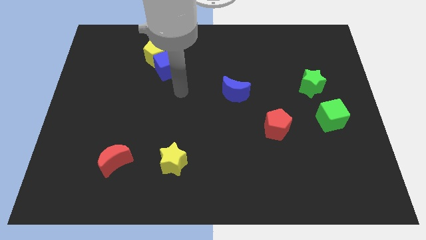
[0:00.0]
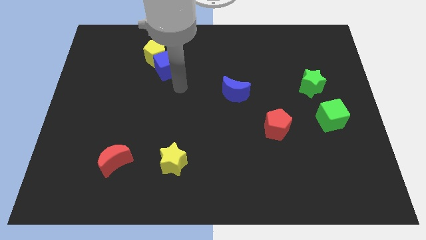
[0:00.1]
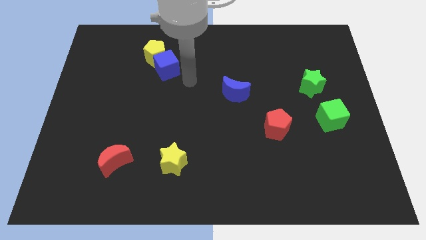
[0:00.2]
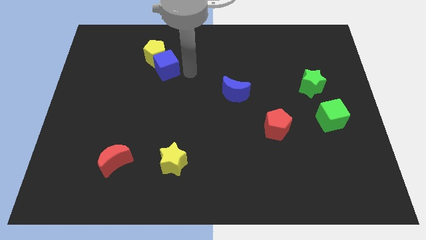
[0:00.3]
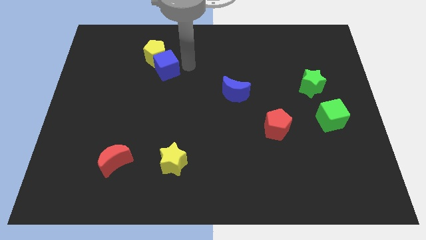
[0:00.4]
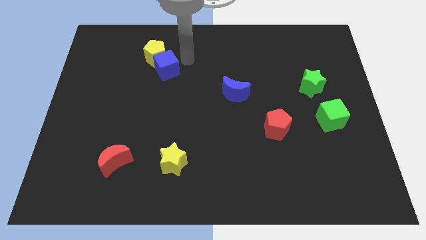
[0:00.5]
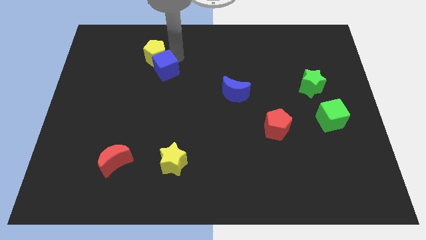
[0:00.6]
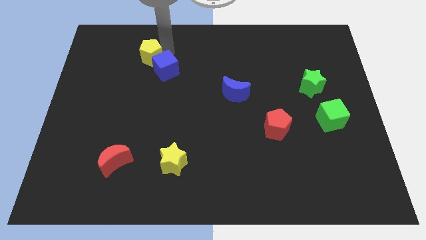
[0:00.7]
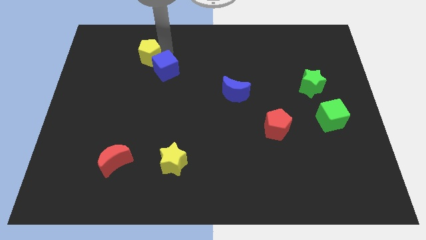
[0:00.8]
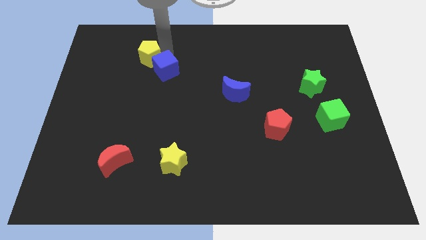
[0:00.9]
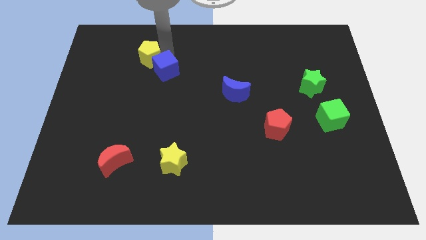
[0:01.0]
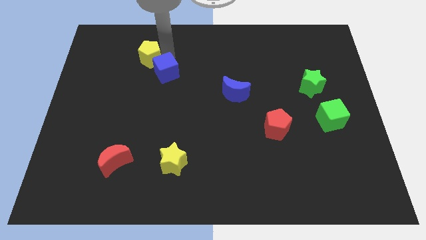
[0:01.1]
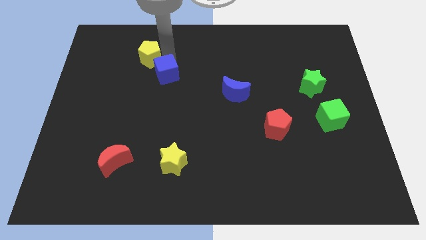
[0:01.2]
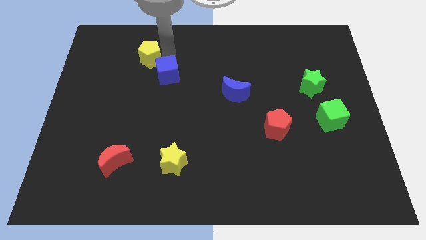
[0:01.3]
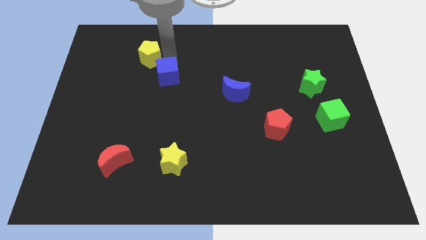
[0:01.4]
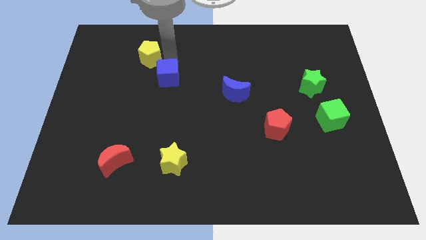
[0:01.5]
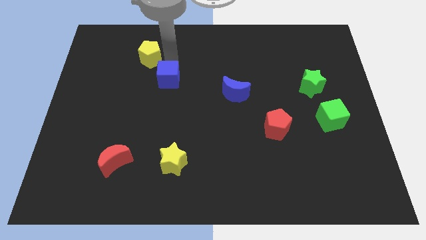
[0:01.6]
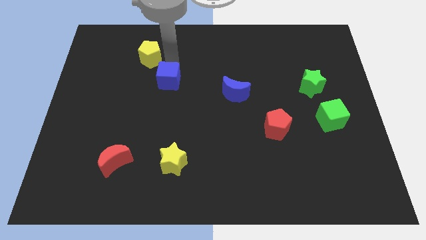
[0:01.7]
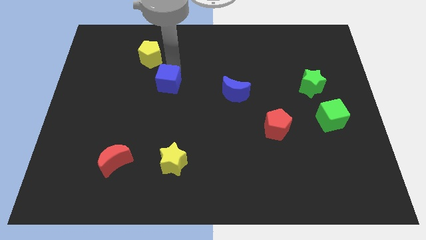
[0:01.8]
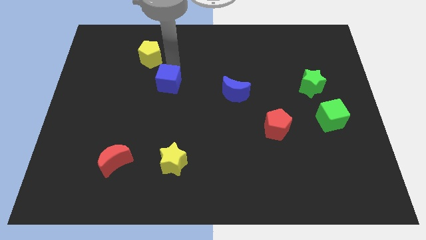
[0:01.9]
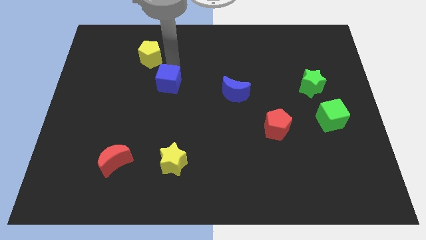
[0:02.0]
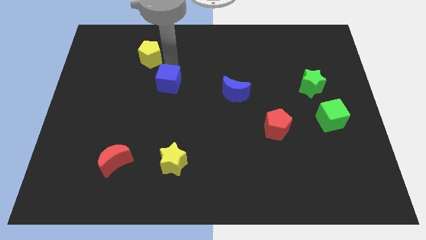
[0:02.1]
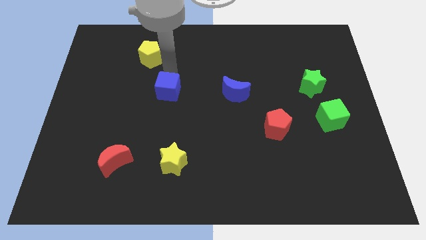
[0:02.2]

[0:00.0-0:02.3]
slide the blue cube somewhat downwards

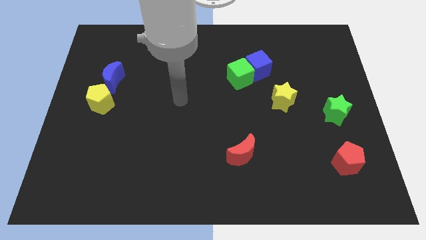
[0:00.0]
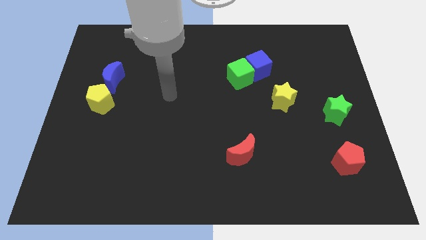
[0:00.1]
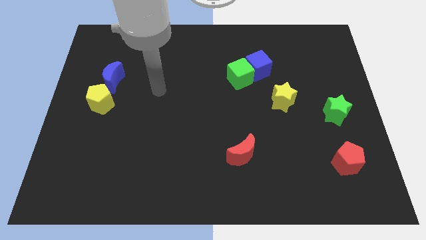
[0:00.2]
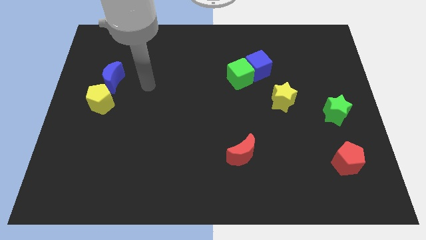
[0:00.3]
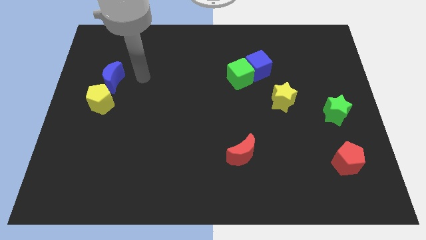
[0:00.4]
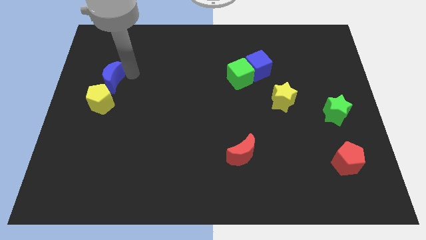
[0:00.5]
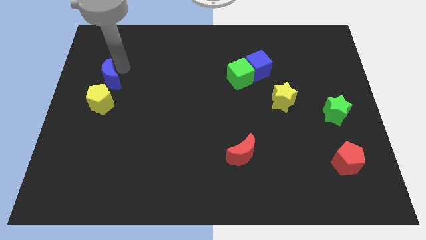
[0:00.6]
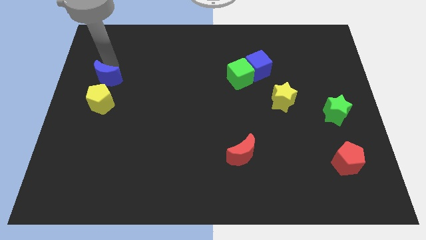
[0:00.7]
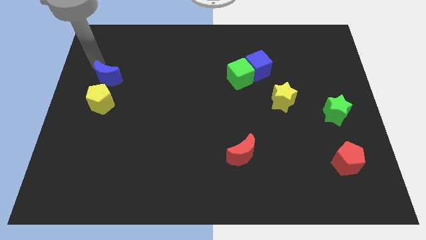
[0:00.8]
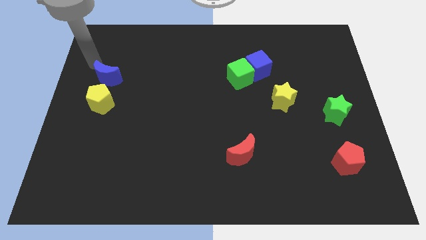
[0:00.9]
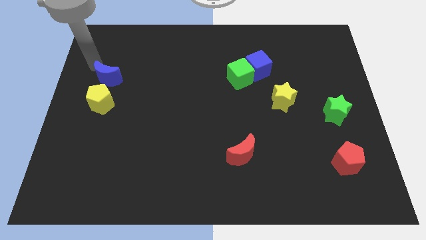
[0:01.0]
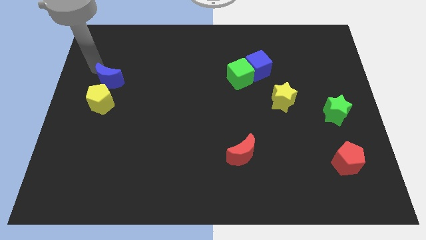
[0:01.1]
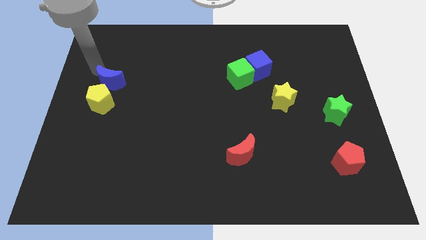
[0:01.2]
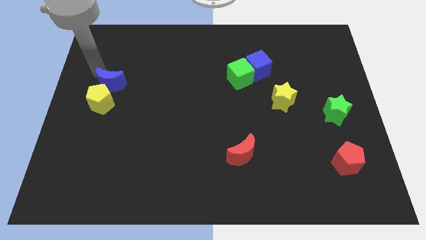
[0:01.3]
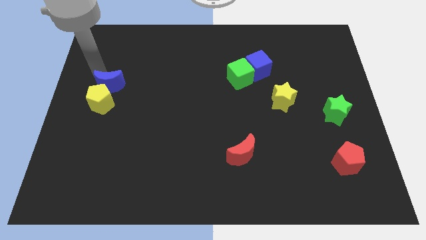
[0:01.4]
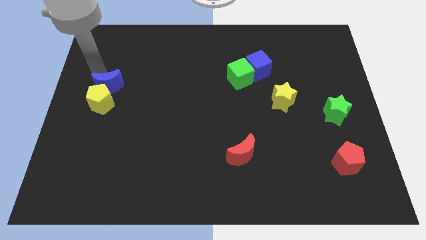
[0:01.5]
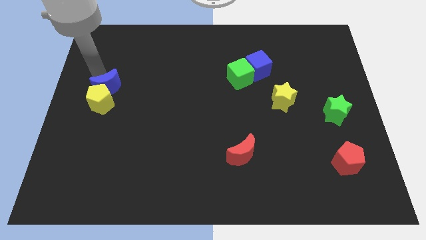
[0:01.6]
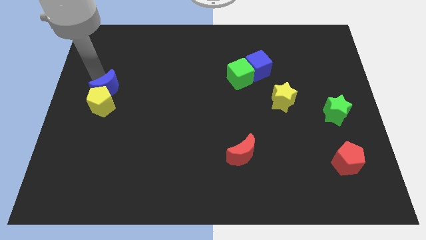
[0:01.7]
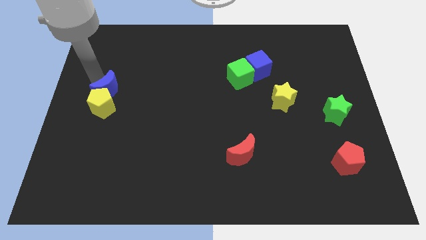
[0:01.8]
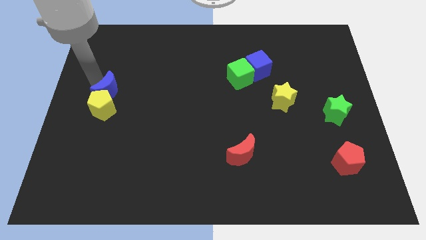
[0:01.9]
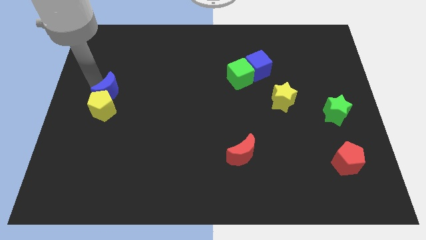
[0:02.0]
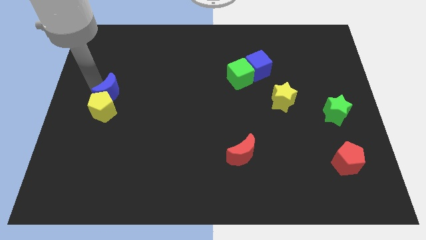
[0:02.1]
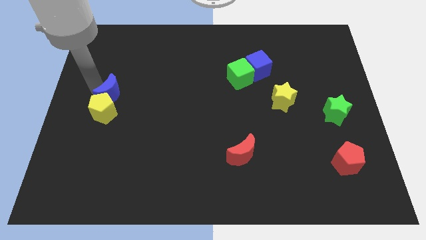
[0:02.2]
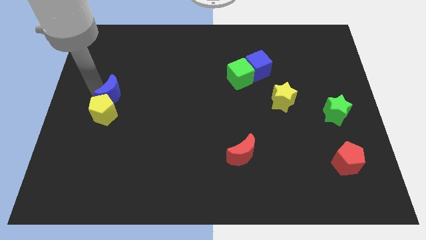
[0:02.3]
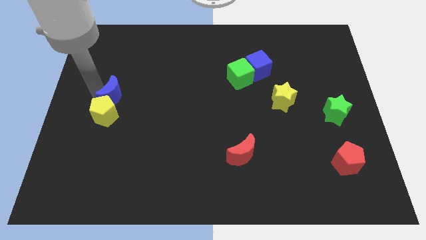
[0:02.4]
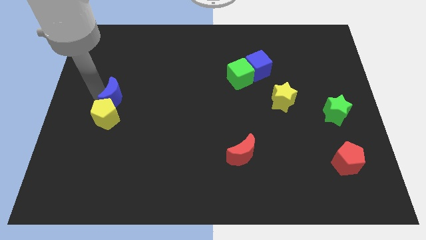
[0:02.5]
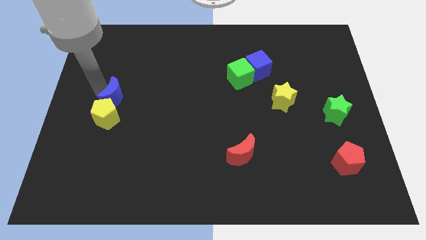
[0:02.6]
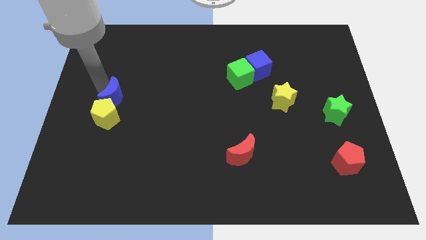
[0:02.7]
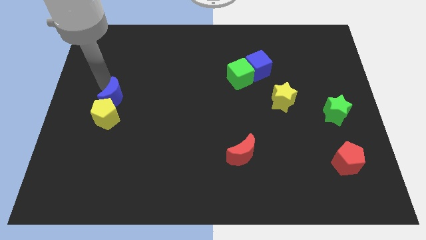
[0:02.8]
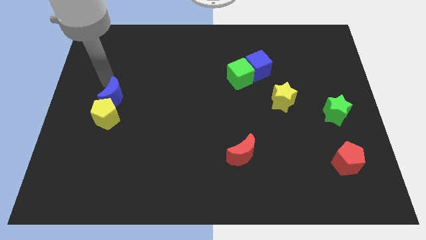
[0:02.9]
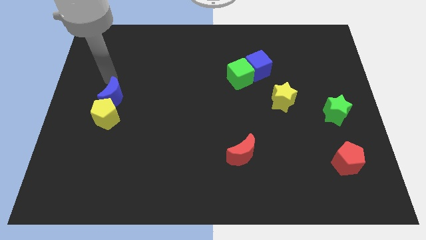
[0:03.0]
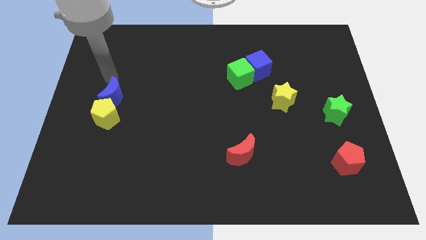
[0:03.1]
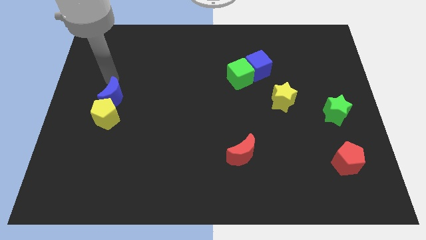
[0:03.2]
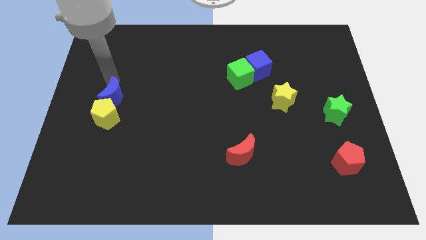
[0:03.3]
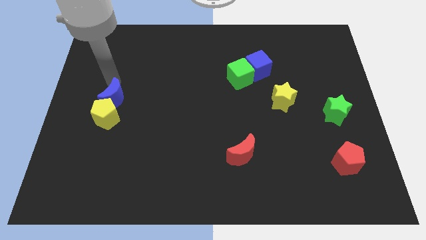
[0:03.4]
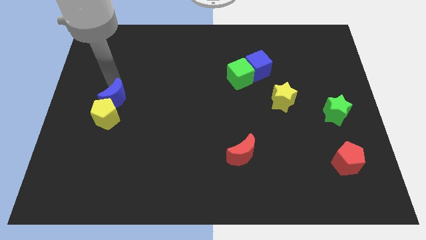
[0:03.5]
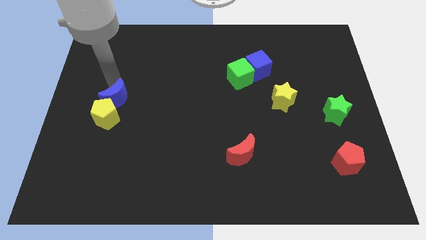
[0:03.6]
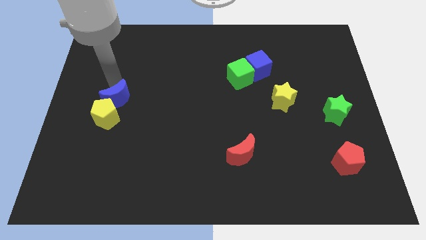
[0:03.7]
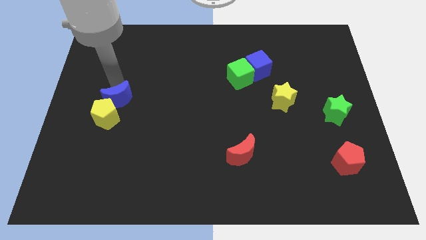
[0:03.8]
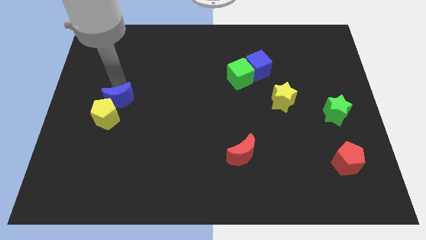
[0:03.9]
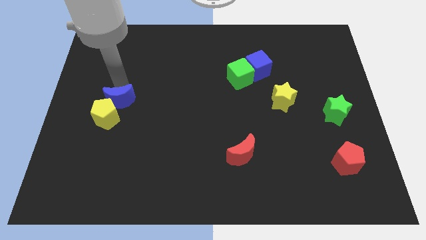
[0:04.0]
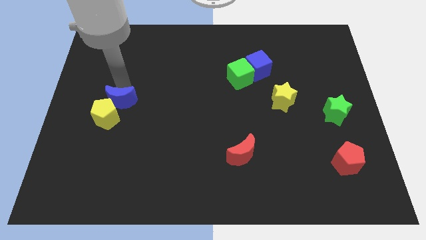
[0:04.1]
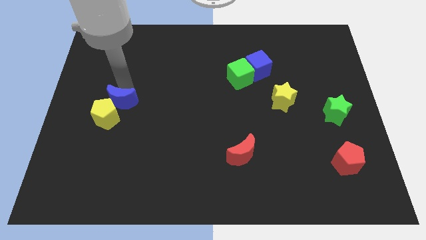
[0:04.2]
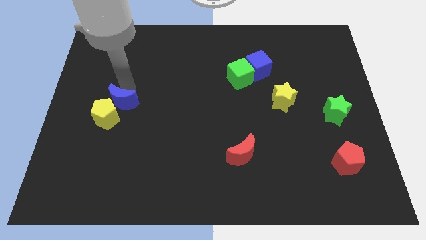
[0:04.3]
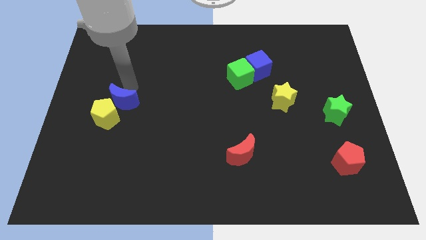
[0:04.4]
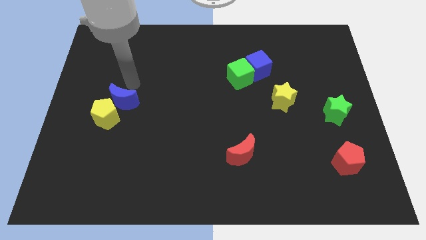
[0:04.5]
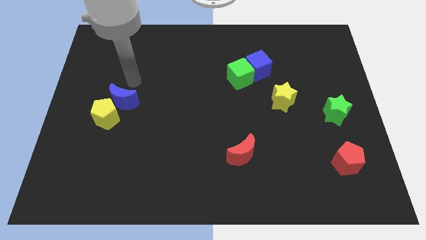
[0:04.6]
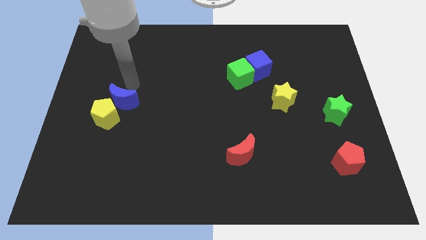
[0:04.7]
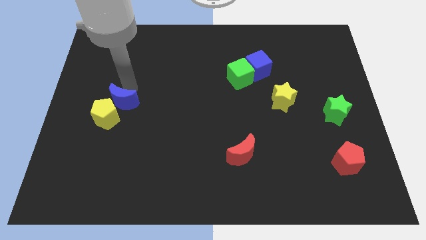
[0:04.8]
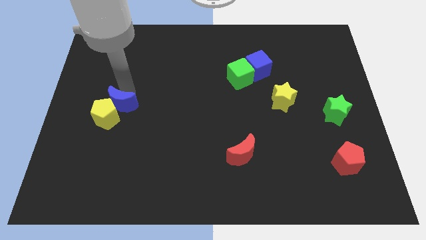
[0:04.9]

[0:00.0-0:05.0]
slide the blue moon somewhat down

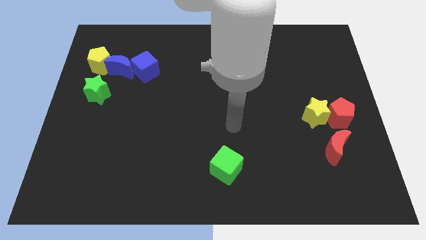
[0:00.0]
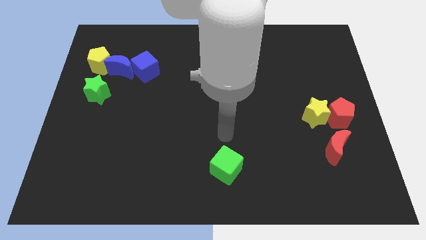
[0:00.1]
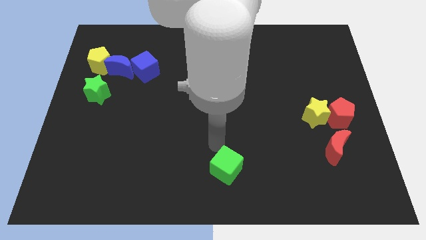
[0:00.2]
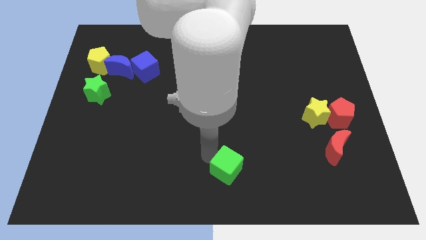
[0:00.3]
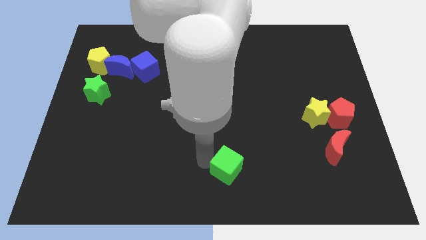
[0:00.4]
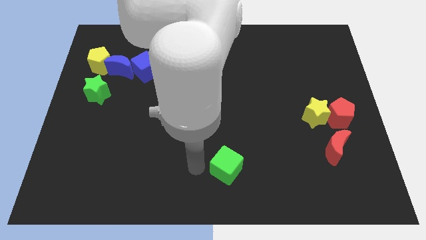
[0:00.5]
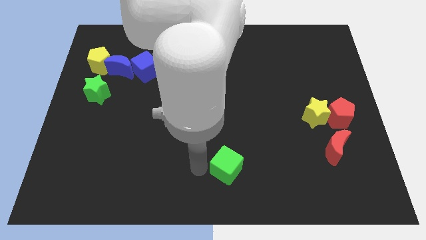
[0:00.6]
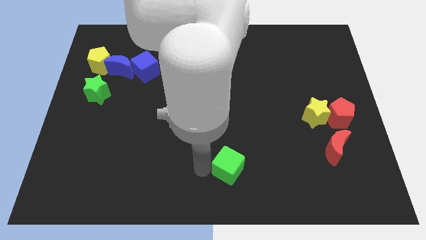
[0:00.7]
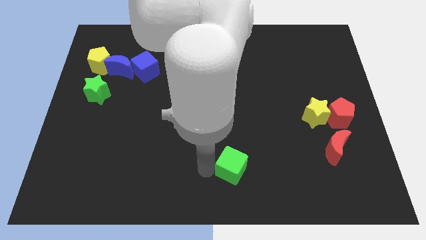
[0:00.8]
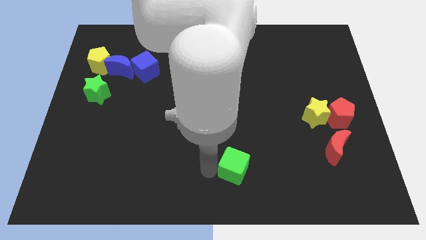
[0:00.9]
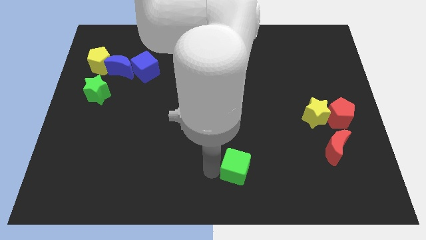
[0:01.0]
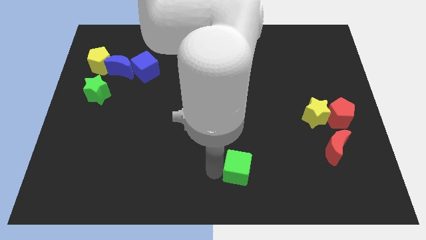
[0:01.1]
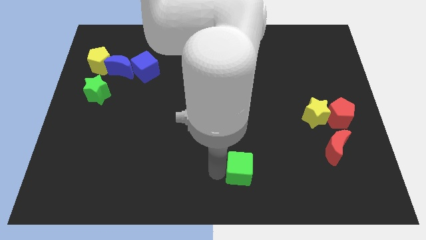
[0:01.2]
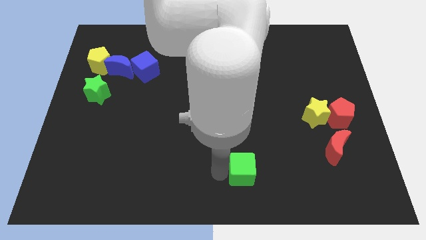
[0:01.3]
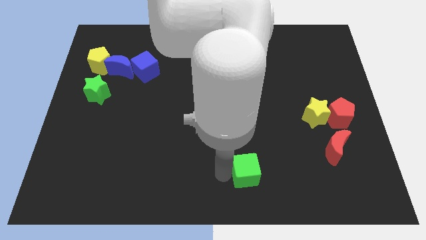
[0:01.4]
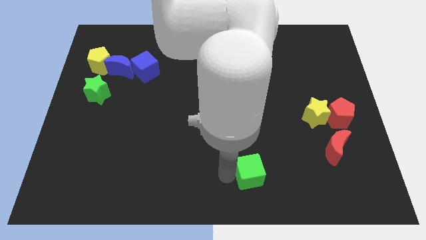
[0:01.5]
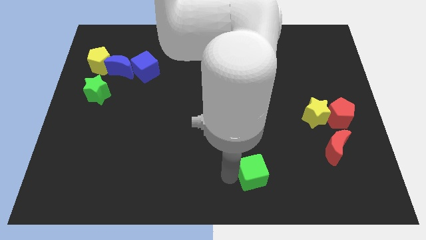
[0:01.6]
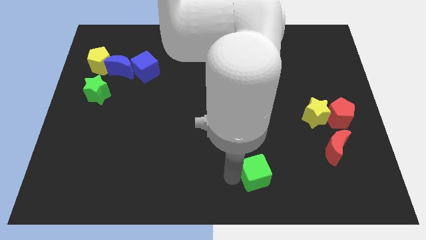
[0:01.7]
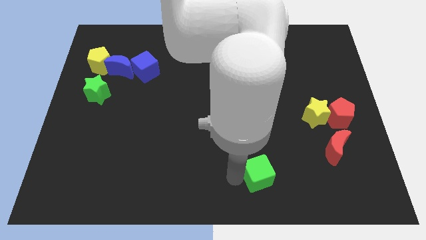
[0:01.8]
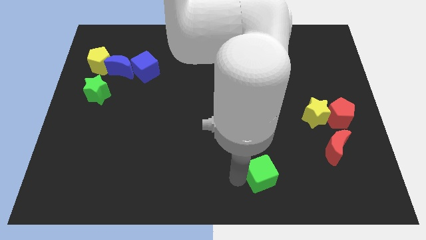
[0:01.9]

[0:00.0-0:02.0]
slightly push the green cube to the right
